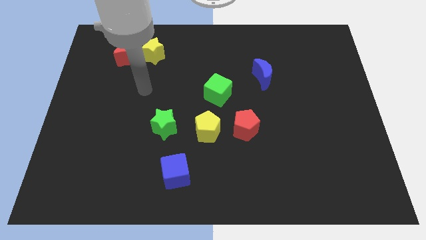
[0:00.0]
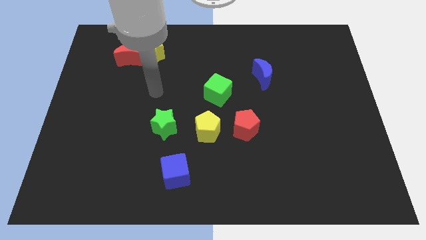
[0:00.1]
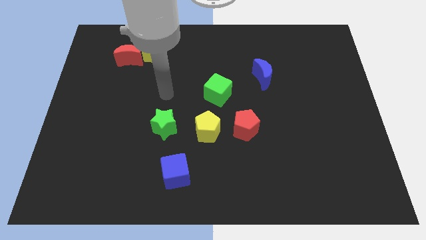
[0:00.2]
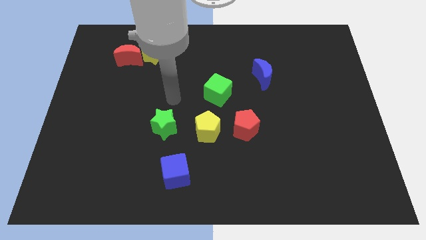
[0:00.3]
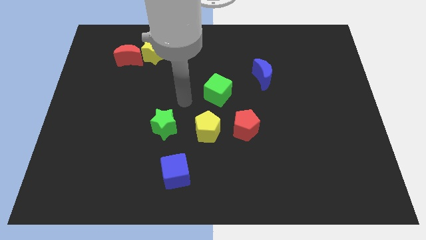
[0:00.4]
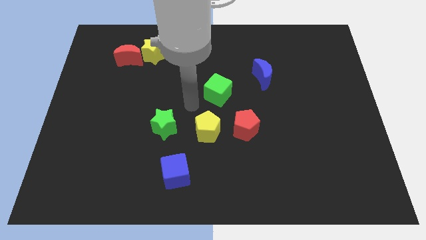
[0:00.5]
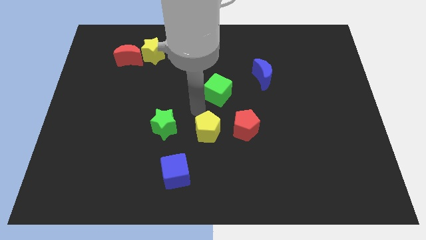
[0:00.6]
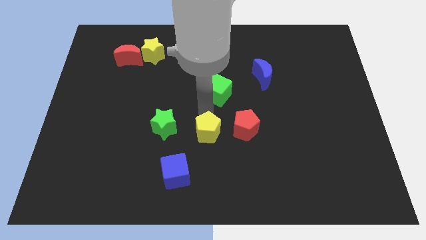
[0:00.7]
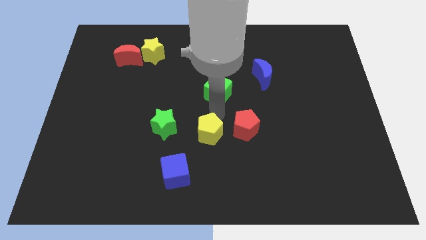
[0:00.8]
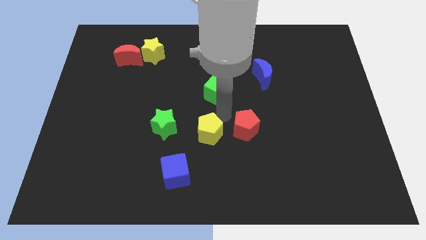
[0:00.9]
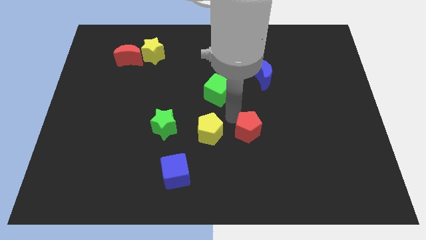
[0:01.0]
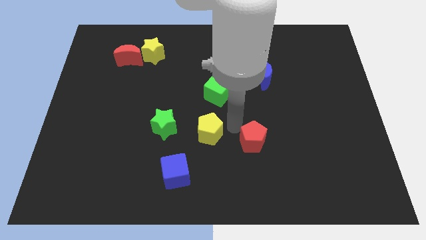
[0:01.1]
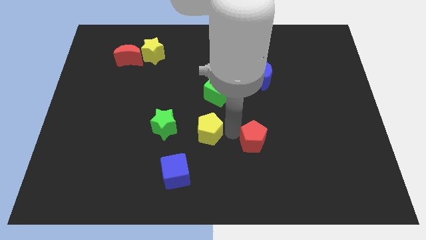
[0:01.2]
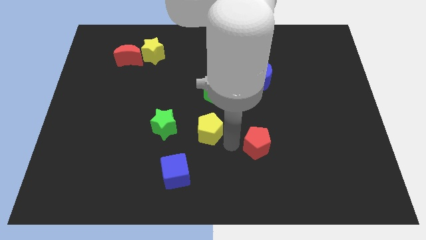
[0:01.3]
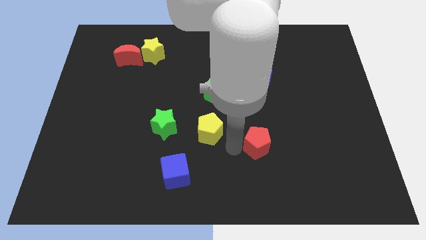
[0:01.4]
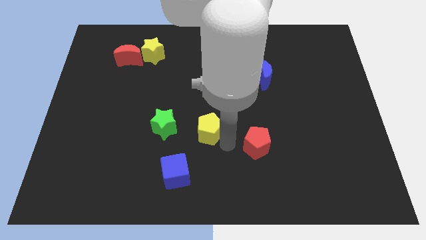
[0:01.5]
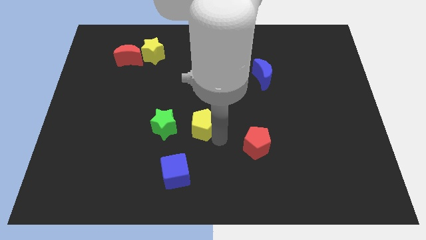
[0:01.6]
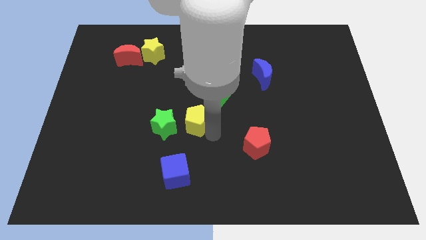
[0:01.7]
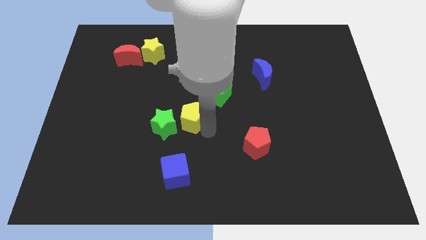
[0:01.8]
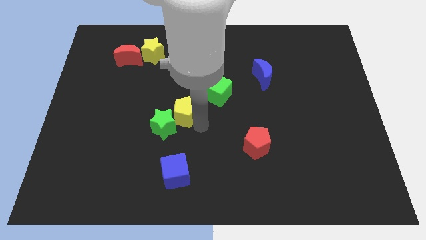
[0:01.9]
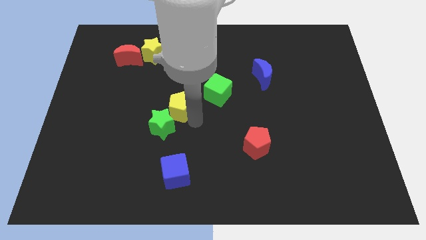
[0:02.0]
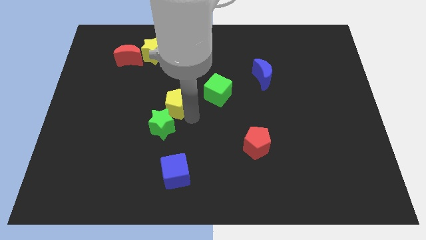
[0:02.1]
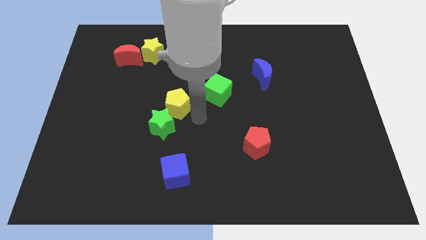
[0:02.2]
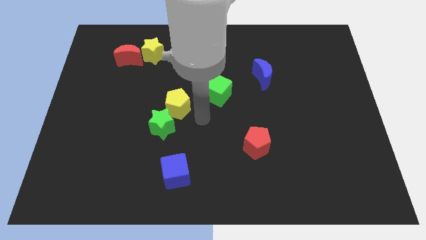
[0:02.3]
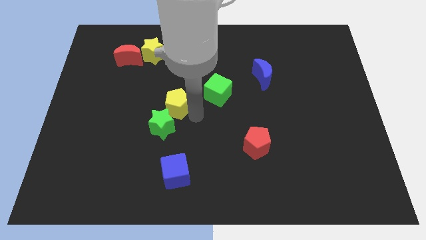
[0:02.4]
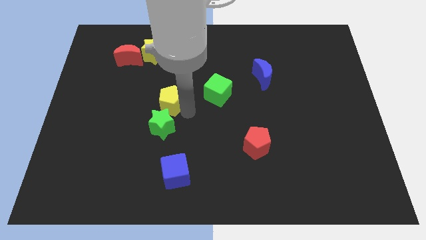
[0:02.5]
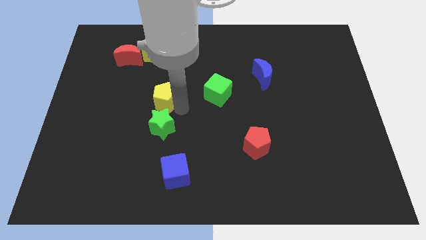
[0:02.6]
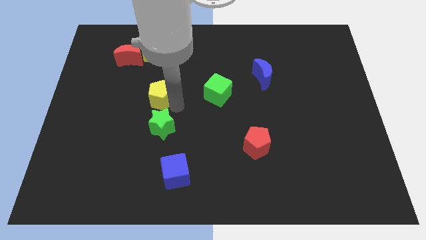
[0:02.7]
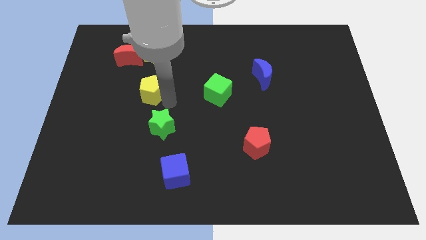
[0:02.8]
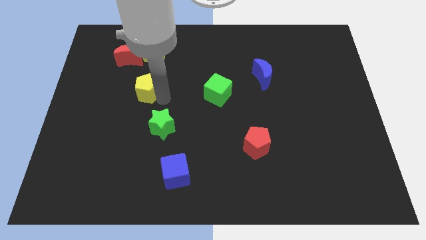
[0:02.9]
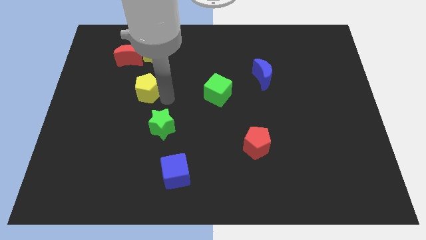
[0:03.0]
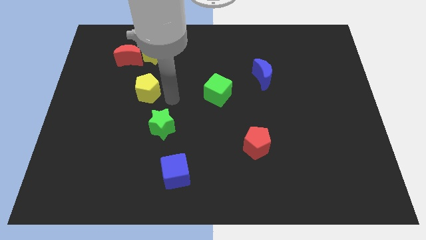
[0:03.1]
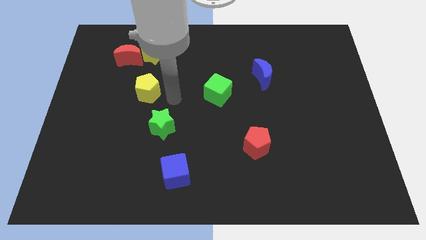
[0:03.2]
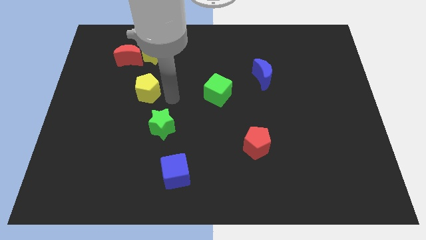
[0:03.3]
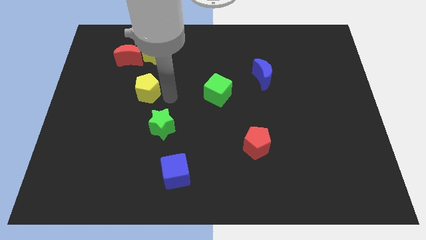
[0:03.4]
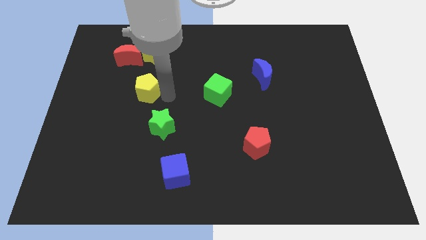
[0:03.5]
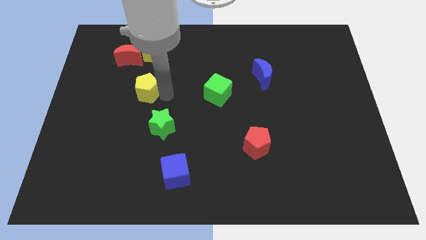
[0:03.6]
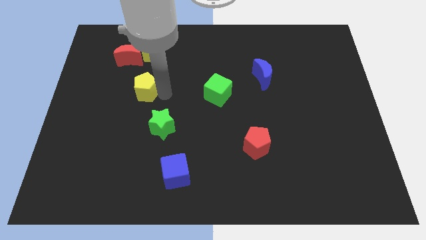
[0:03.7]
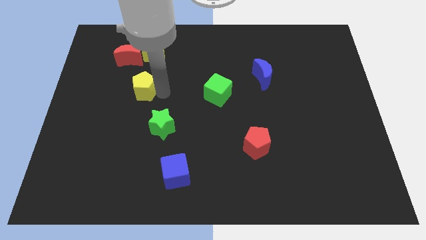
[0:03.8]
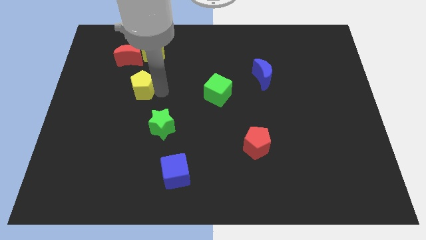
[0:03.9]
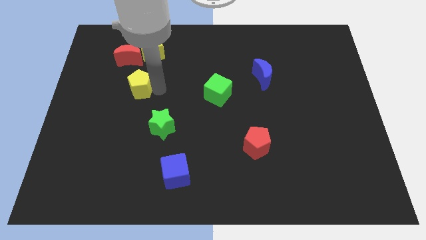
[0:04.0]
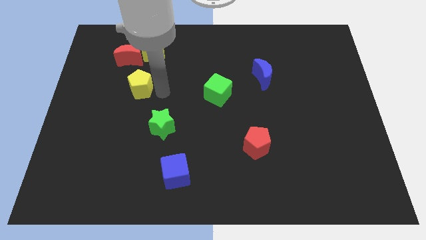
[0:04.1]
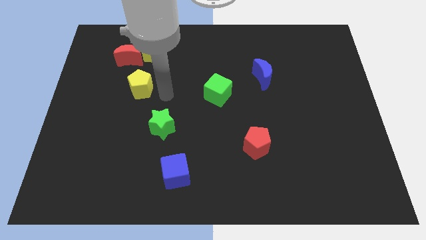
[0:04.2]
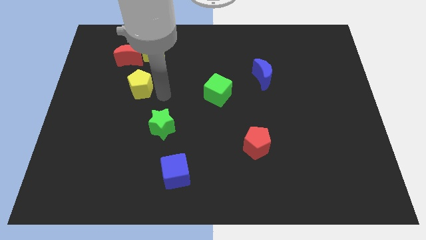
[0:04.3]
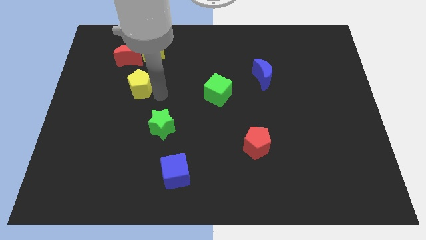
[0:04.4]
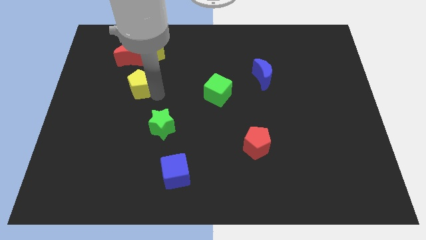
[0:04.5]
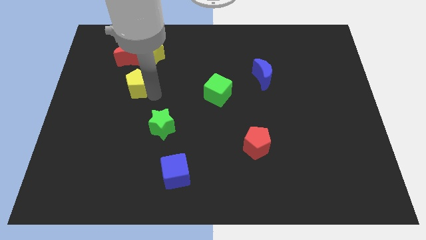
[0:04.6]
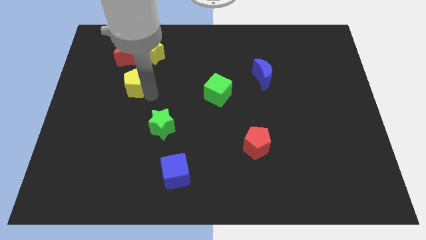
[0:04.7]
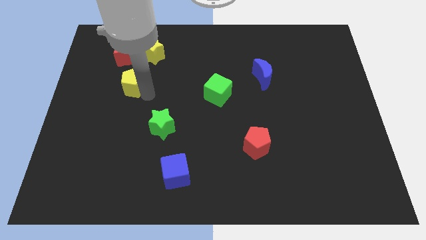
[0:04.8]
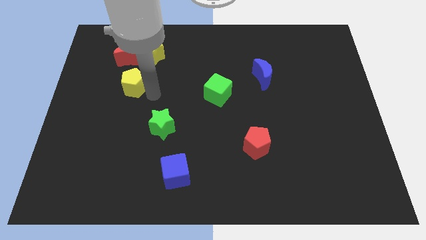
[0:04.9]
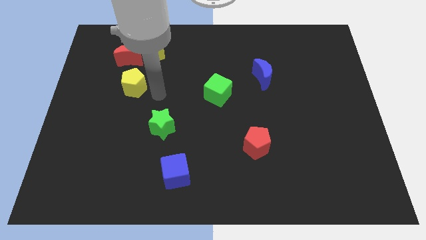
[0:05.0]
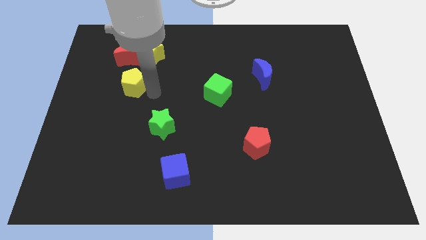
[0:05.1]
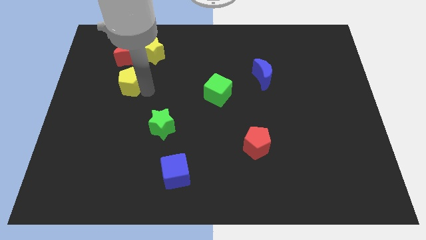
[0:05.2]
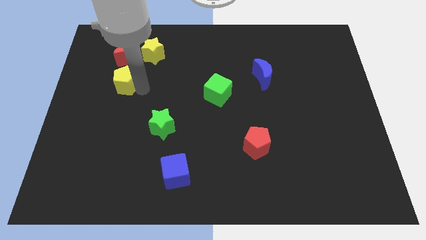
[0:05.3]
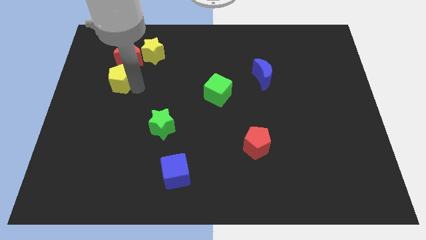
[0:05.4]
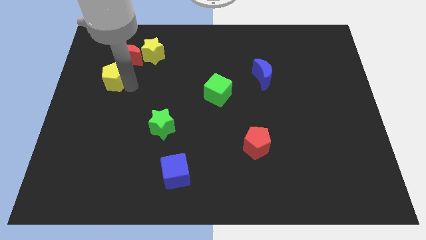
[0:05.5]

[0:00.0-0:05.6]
slide the yellow pentagon to the bottom left of the red moon

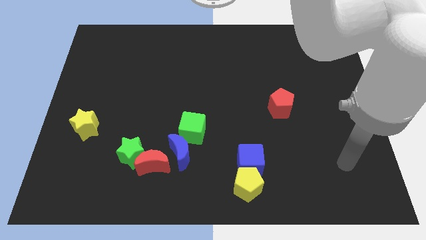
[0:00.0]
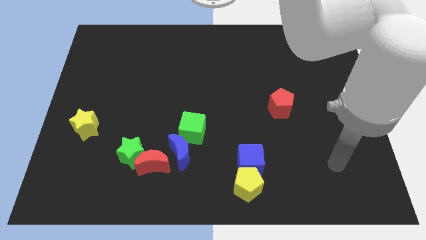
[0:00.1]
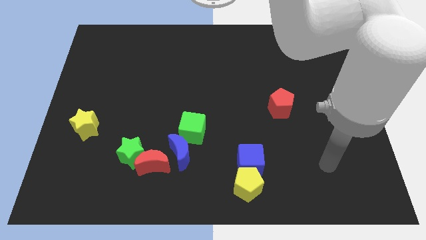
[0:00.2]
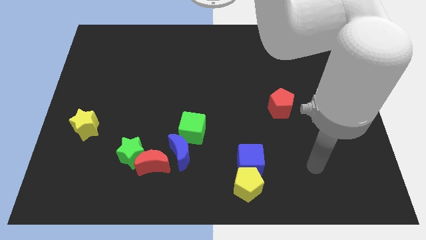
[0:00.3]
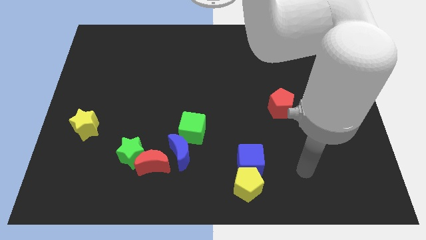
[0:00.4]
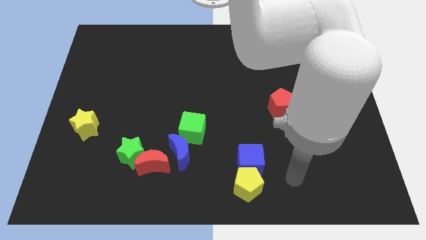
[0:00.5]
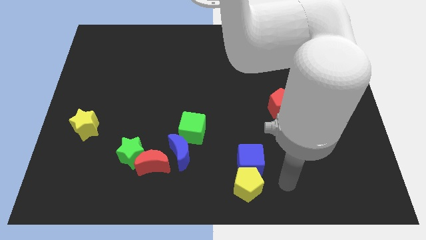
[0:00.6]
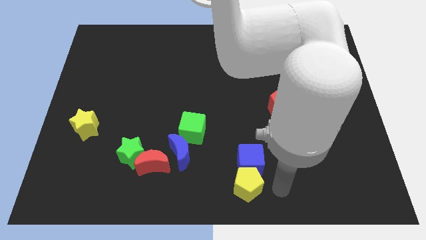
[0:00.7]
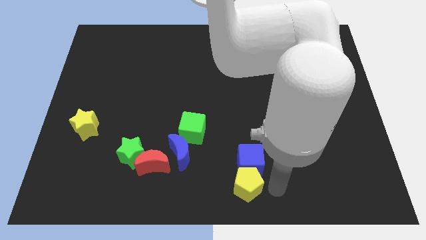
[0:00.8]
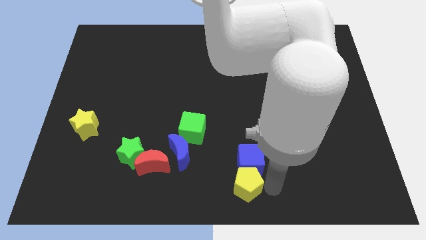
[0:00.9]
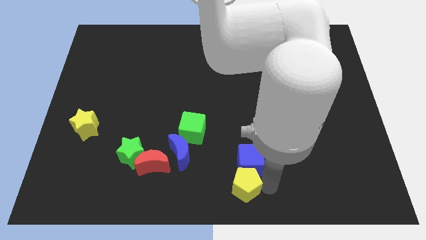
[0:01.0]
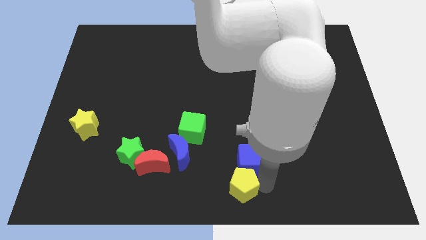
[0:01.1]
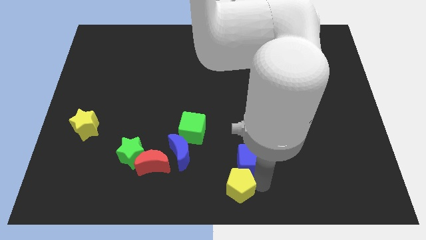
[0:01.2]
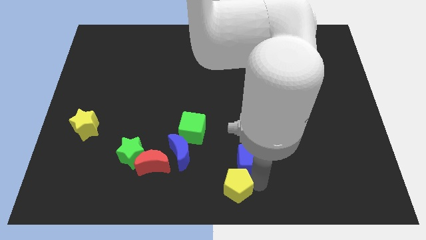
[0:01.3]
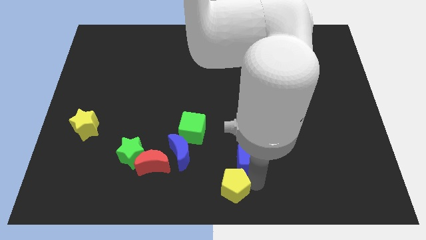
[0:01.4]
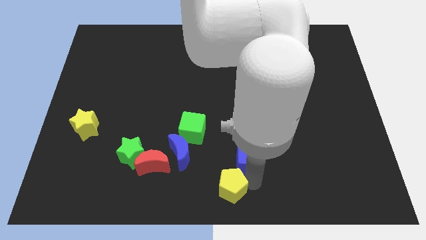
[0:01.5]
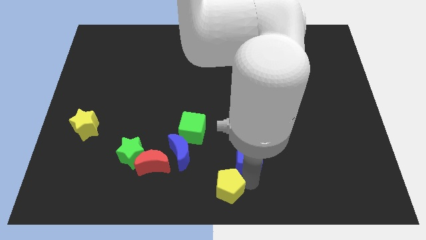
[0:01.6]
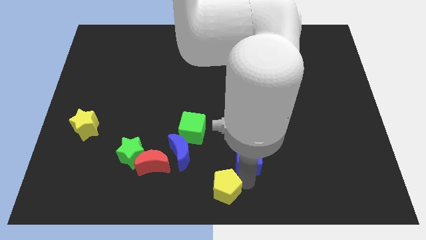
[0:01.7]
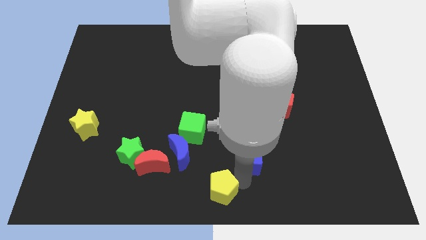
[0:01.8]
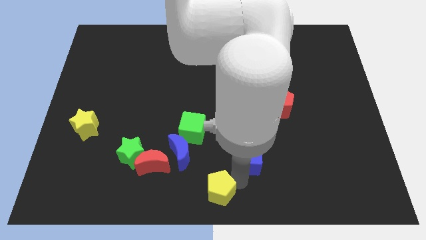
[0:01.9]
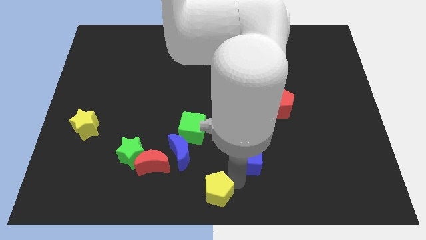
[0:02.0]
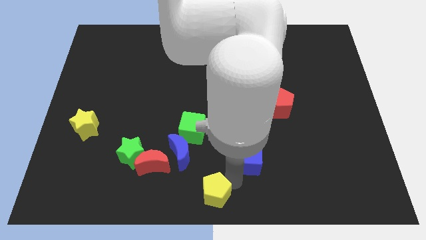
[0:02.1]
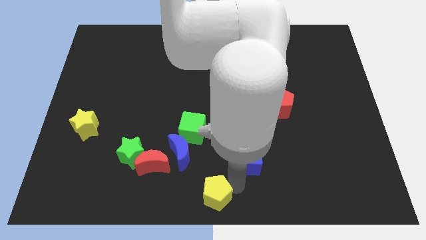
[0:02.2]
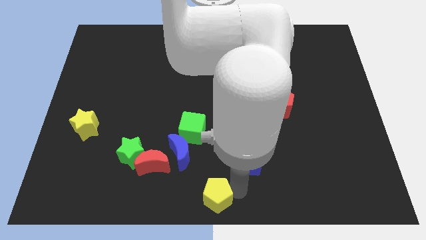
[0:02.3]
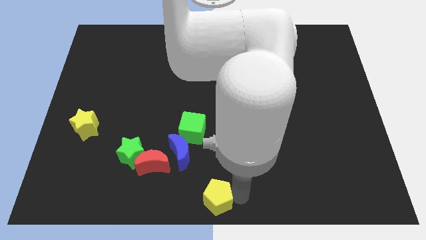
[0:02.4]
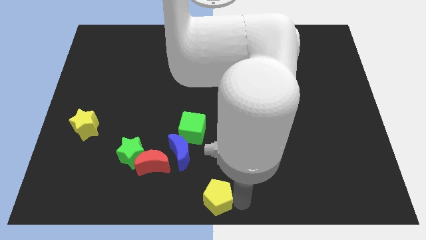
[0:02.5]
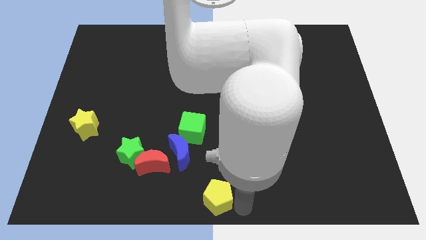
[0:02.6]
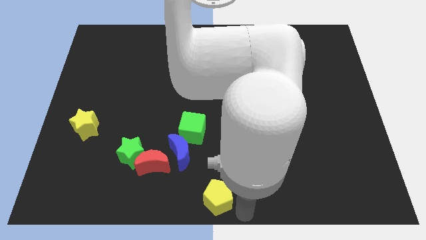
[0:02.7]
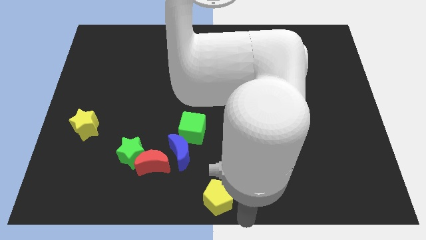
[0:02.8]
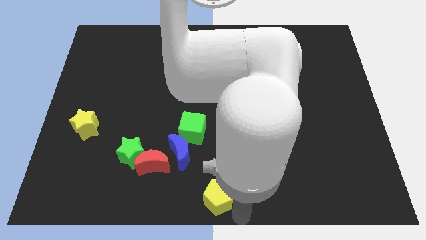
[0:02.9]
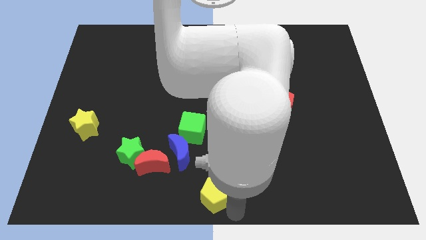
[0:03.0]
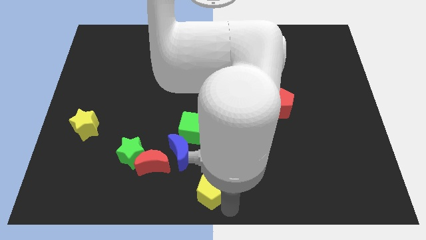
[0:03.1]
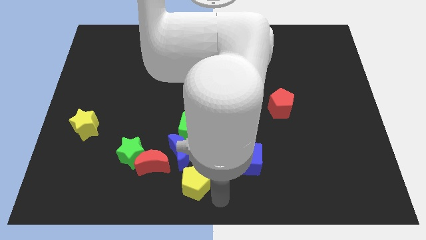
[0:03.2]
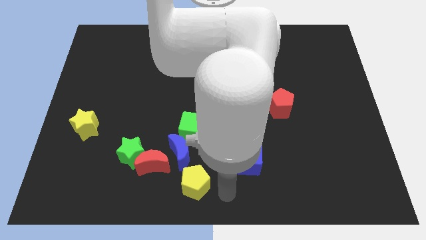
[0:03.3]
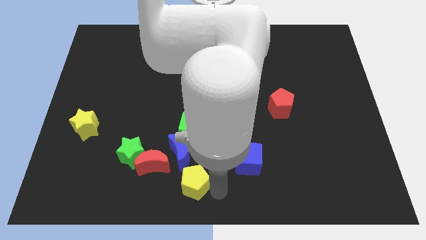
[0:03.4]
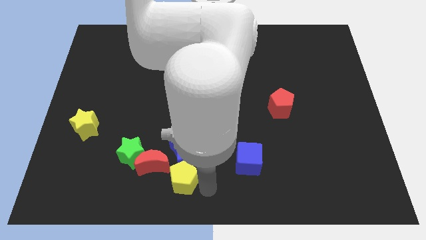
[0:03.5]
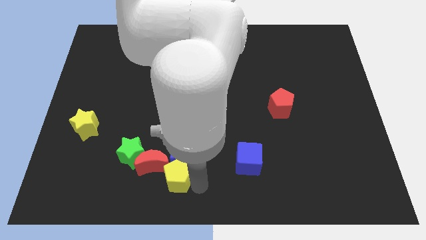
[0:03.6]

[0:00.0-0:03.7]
slide the yellow pentagon to the bottom right side of the green star
